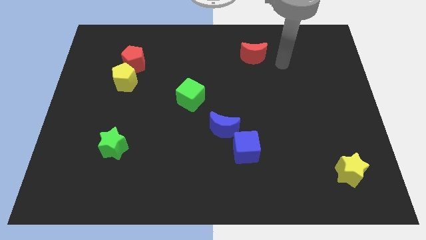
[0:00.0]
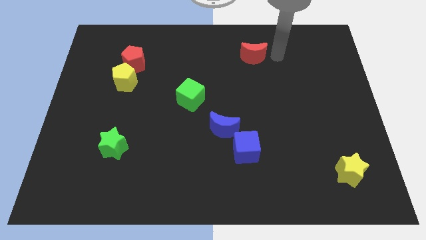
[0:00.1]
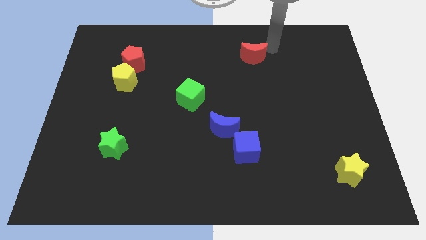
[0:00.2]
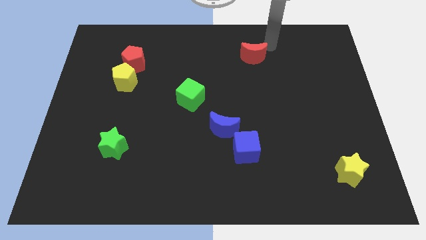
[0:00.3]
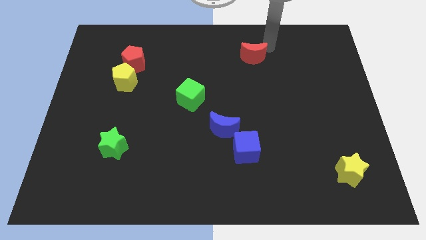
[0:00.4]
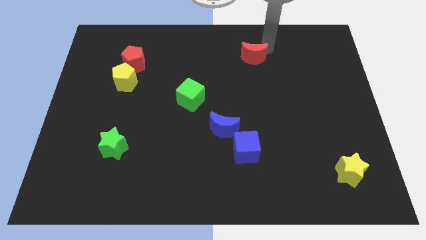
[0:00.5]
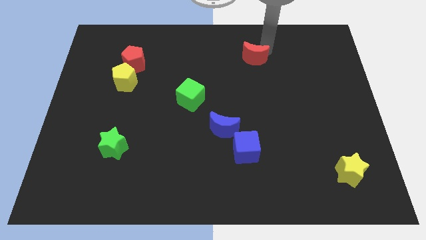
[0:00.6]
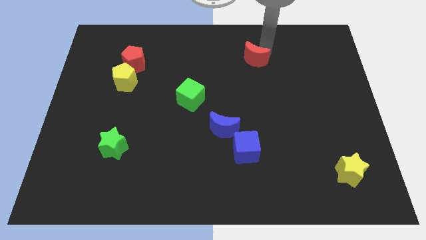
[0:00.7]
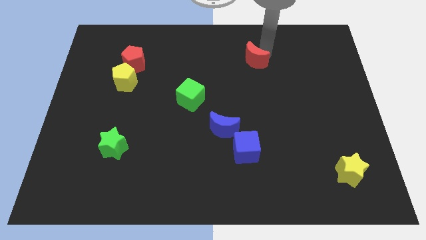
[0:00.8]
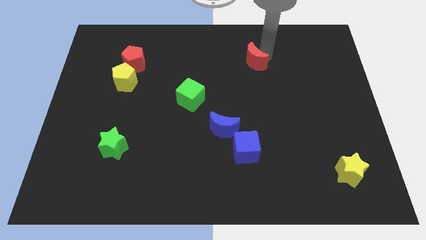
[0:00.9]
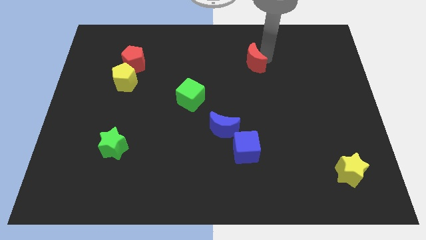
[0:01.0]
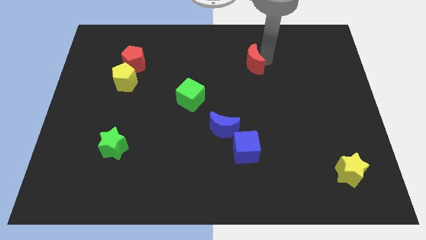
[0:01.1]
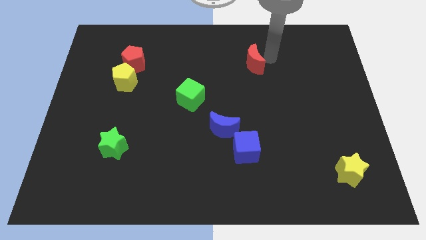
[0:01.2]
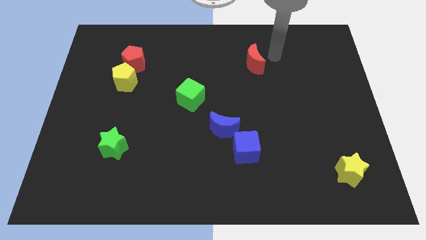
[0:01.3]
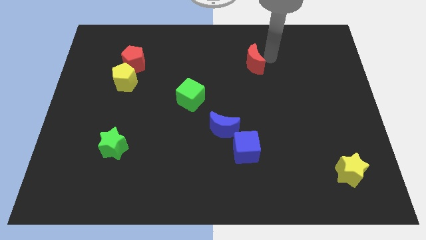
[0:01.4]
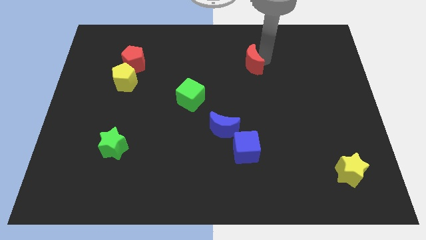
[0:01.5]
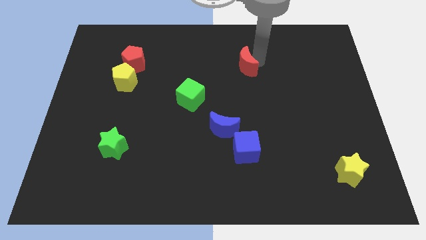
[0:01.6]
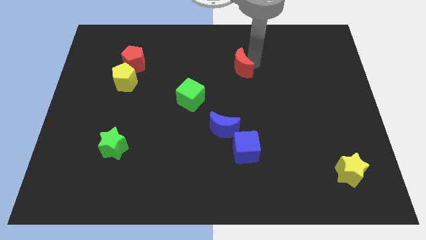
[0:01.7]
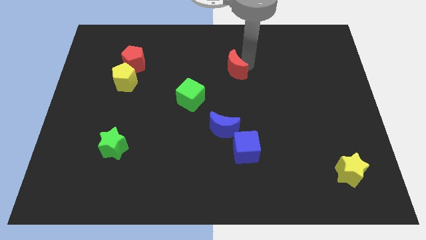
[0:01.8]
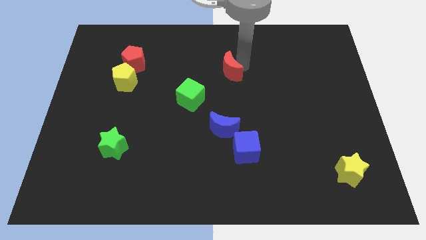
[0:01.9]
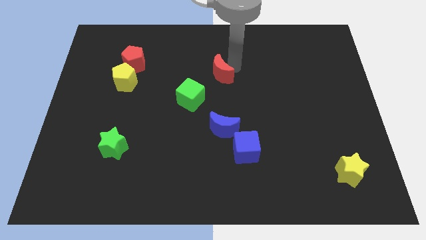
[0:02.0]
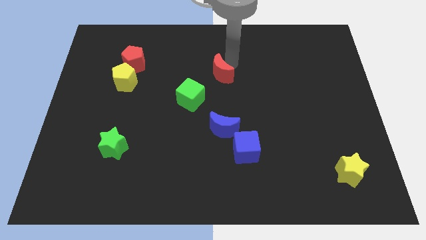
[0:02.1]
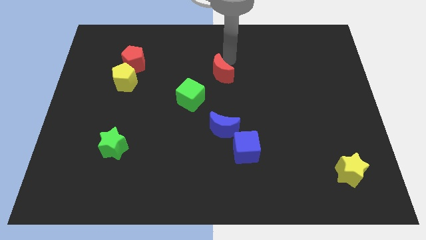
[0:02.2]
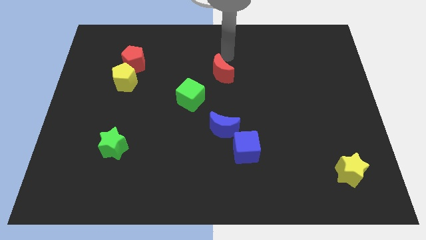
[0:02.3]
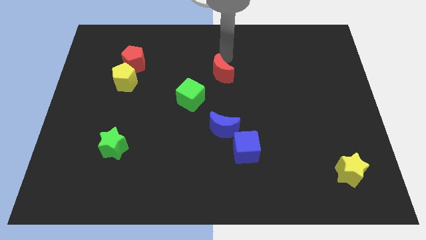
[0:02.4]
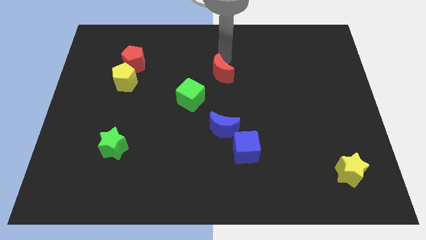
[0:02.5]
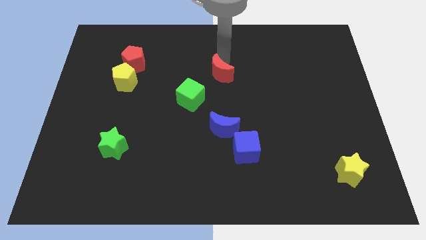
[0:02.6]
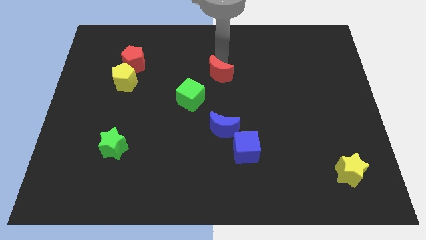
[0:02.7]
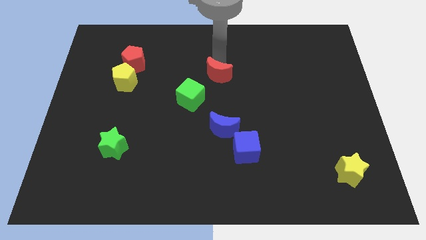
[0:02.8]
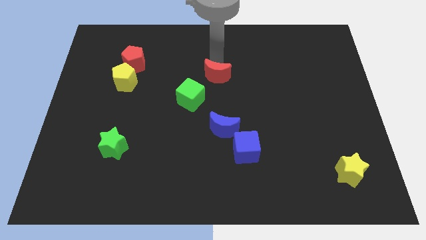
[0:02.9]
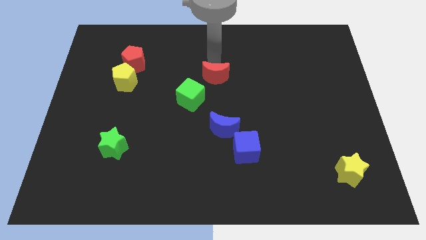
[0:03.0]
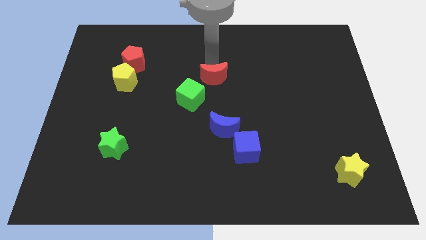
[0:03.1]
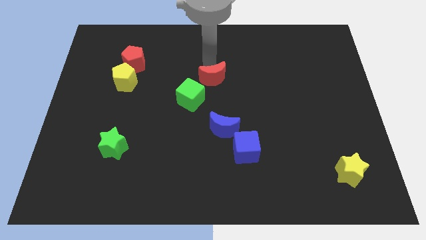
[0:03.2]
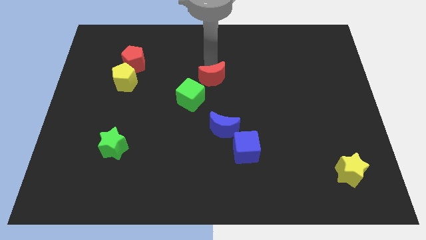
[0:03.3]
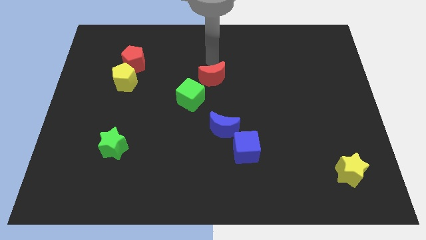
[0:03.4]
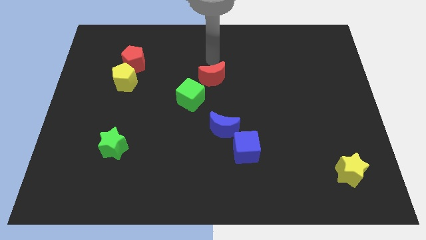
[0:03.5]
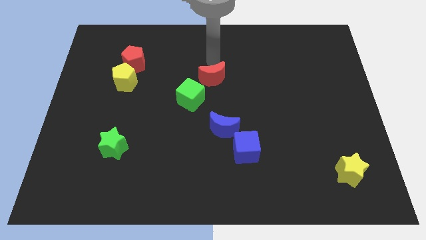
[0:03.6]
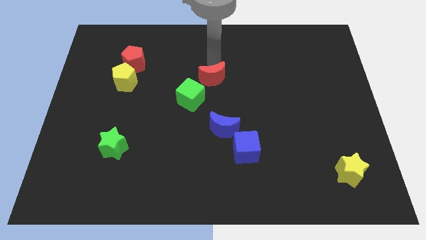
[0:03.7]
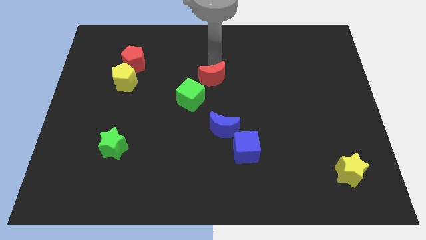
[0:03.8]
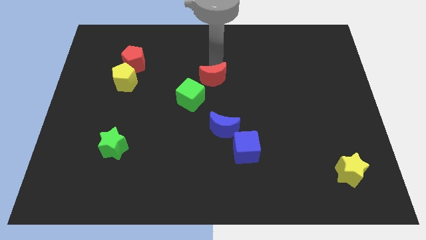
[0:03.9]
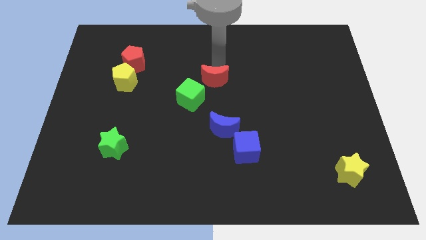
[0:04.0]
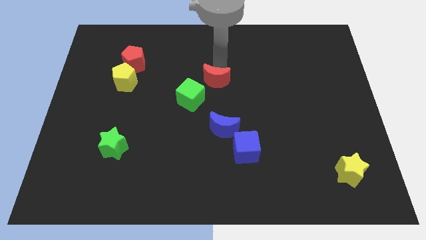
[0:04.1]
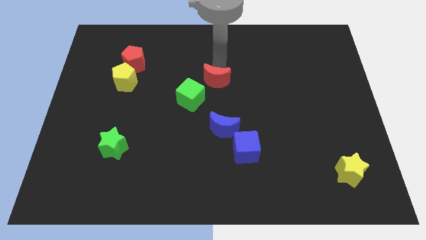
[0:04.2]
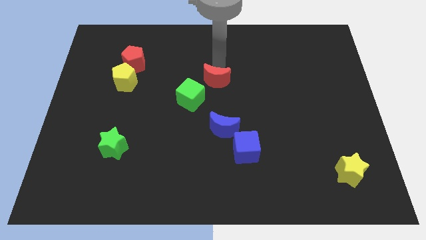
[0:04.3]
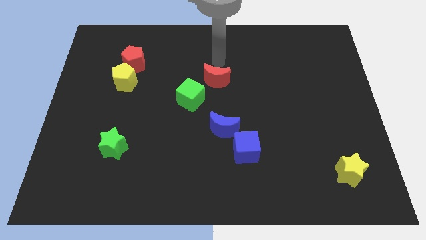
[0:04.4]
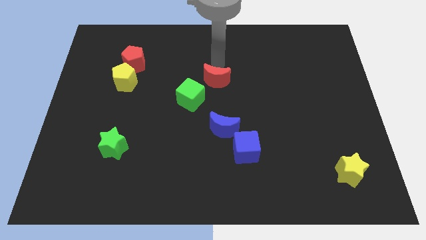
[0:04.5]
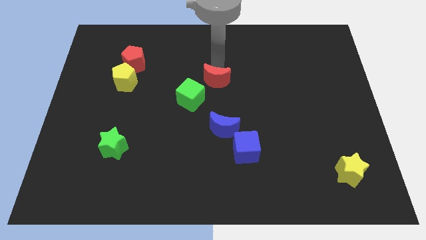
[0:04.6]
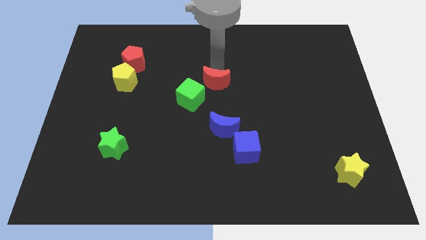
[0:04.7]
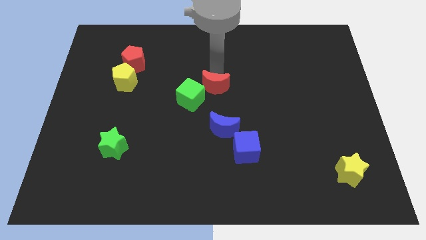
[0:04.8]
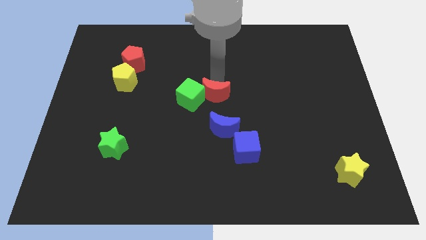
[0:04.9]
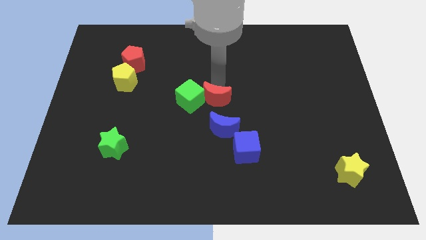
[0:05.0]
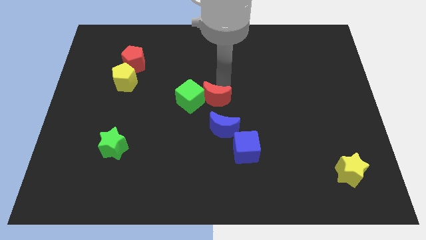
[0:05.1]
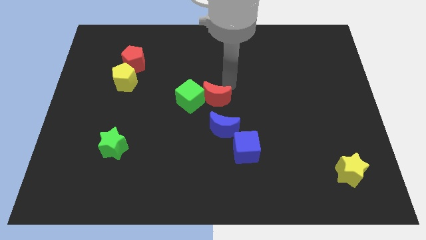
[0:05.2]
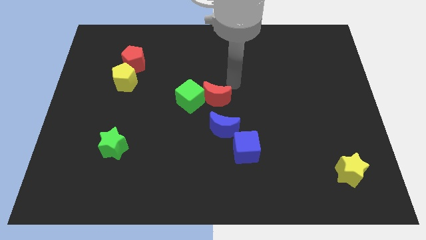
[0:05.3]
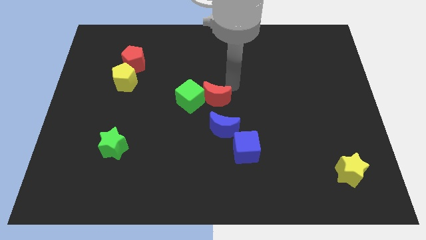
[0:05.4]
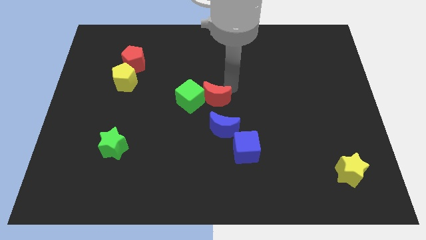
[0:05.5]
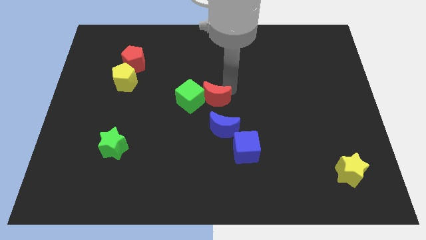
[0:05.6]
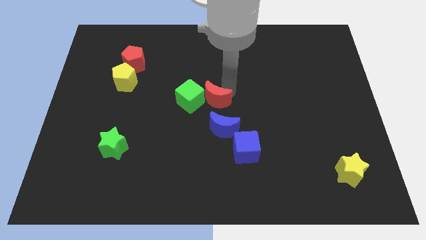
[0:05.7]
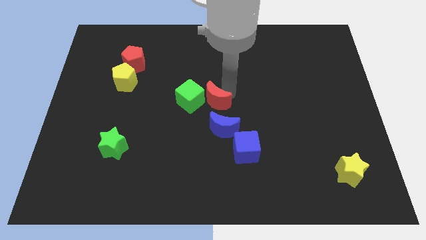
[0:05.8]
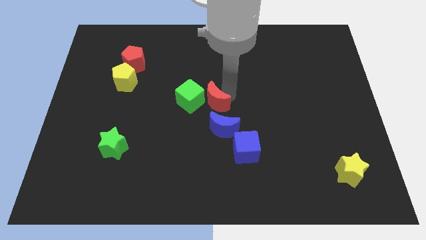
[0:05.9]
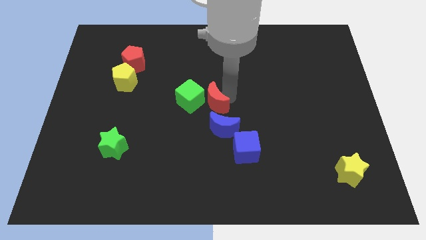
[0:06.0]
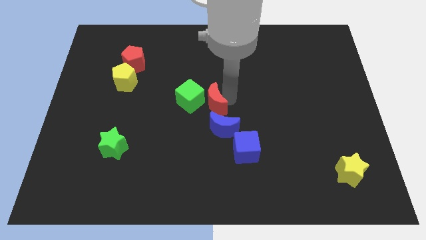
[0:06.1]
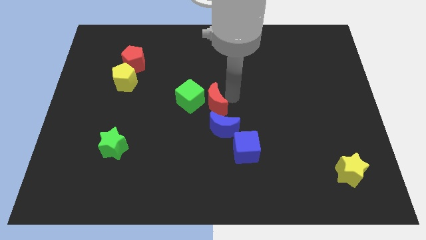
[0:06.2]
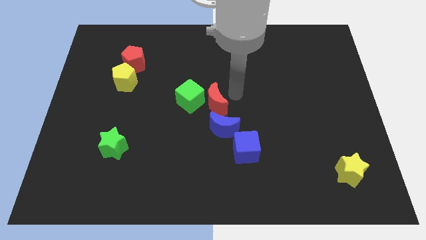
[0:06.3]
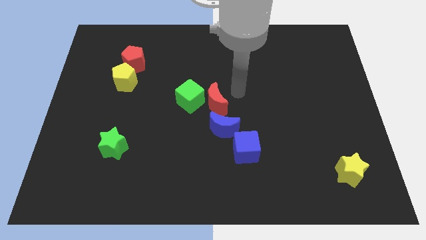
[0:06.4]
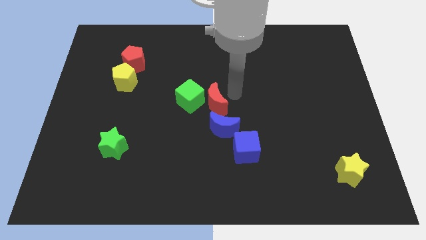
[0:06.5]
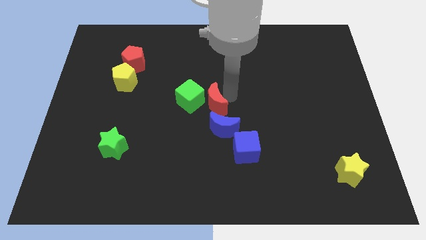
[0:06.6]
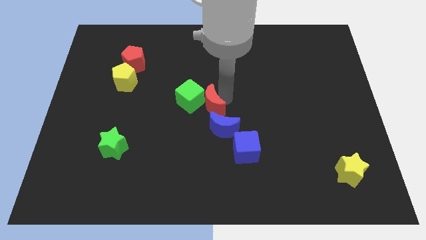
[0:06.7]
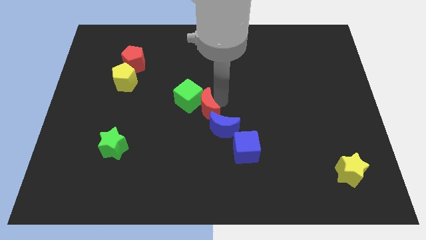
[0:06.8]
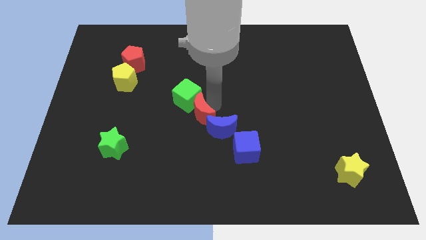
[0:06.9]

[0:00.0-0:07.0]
slide the red moon left of the blue moon
